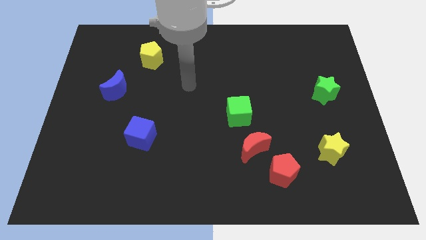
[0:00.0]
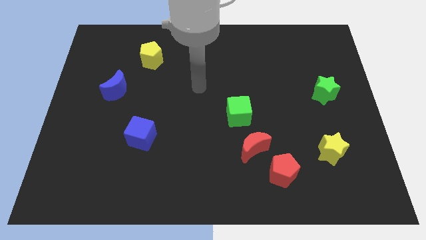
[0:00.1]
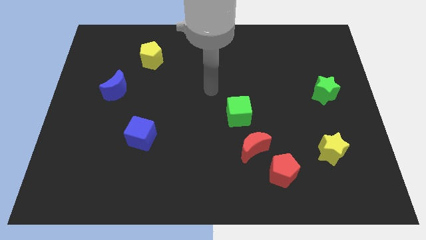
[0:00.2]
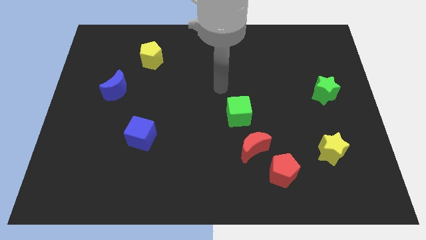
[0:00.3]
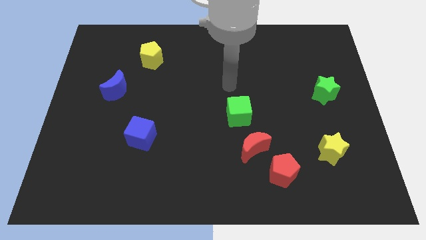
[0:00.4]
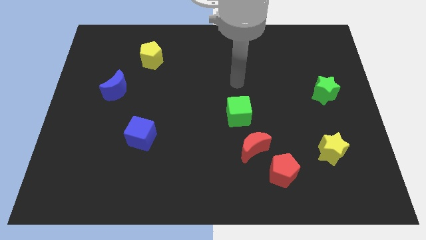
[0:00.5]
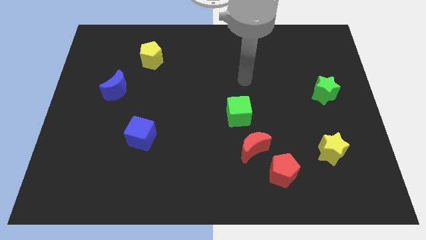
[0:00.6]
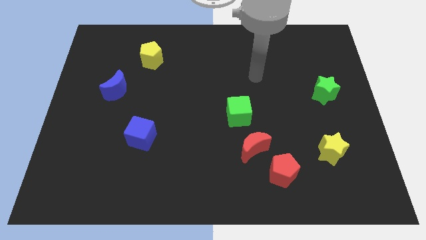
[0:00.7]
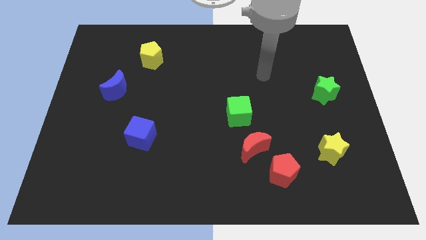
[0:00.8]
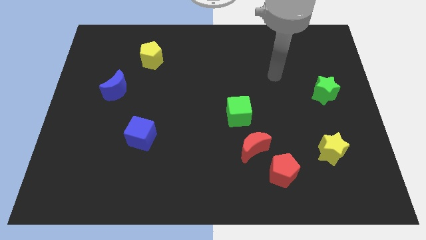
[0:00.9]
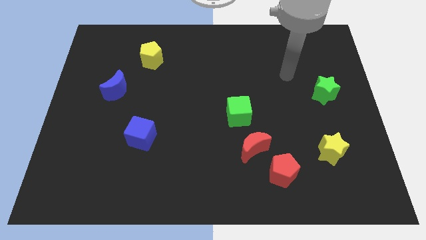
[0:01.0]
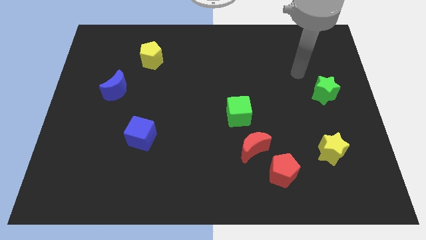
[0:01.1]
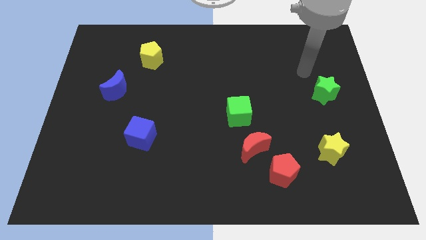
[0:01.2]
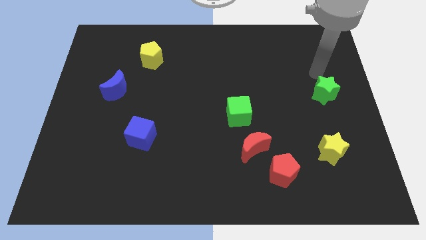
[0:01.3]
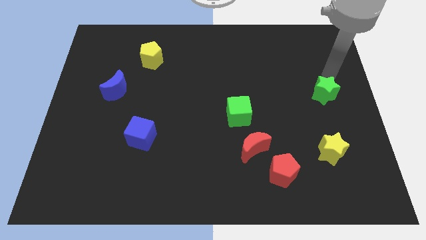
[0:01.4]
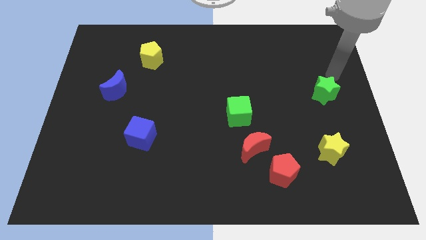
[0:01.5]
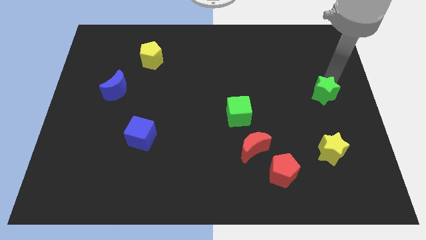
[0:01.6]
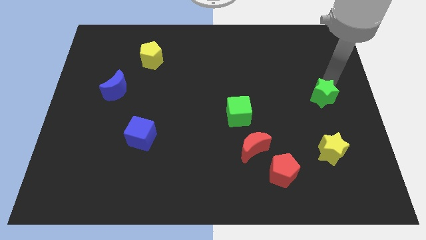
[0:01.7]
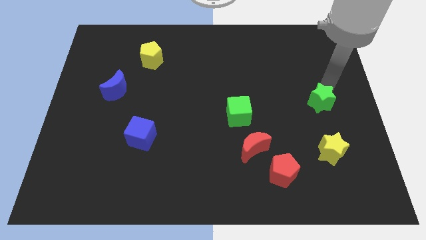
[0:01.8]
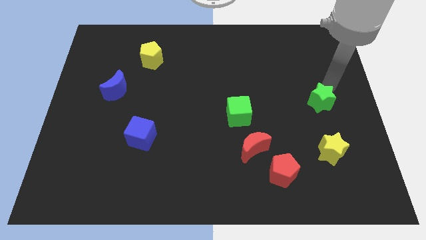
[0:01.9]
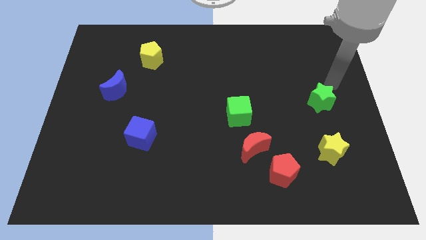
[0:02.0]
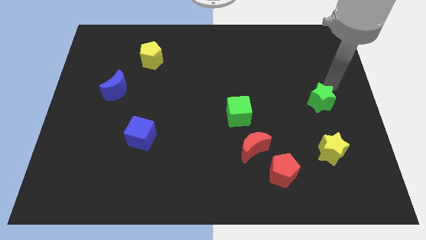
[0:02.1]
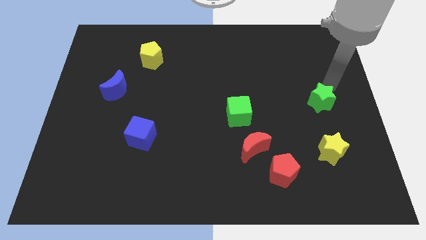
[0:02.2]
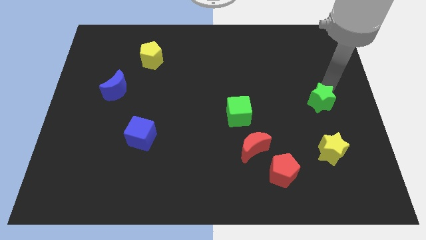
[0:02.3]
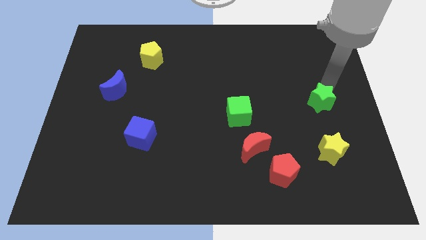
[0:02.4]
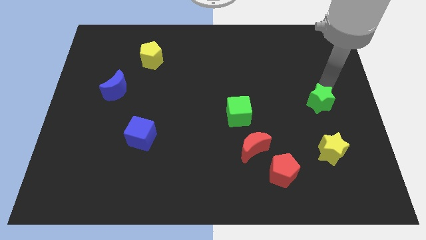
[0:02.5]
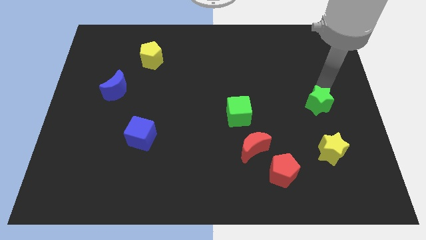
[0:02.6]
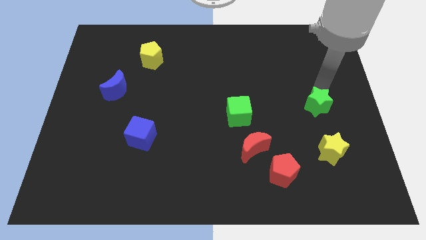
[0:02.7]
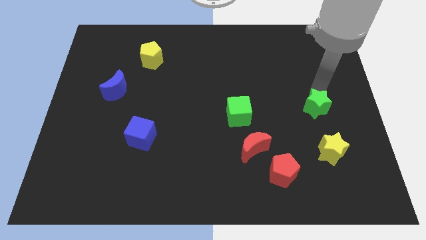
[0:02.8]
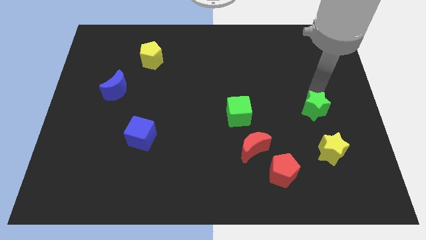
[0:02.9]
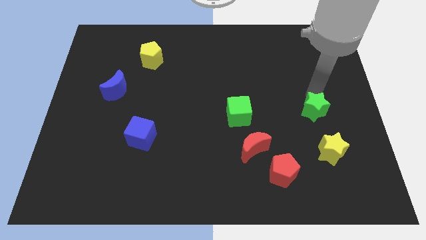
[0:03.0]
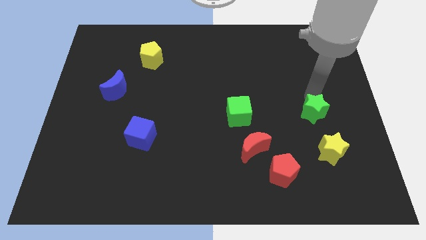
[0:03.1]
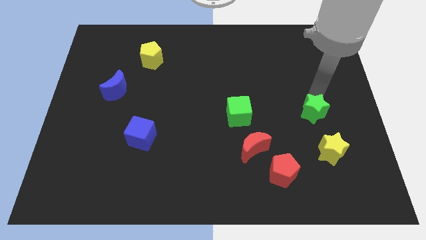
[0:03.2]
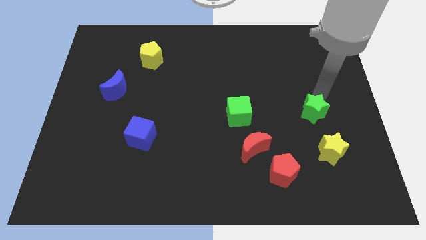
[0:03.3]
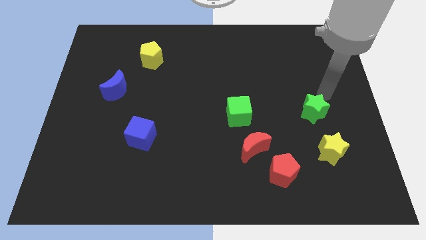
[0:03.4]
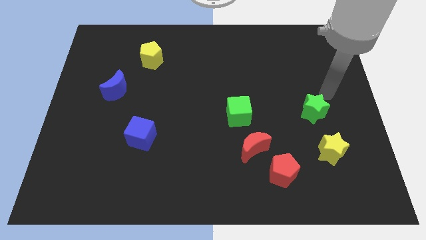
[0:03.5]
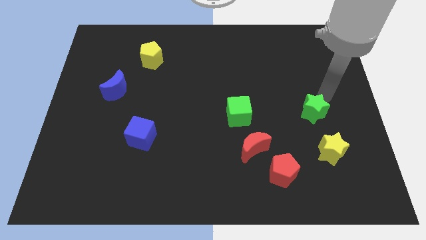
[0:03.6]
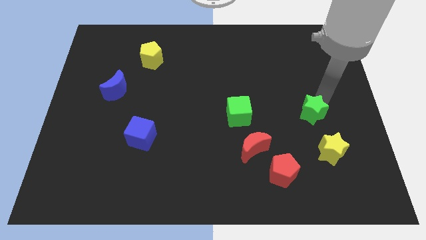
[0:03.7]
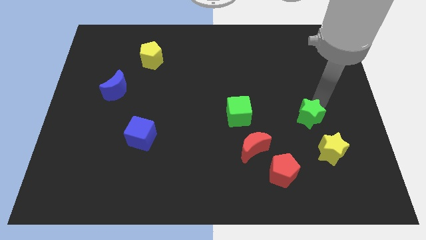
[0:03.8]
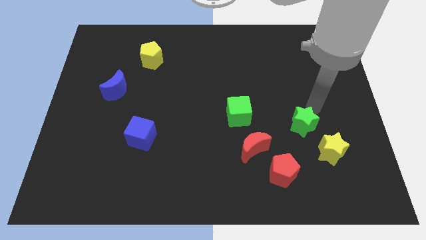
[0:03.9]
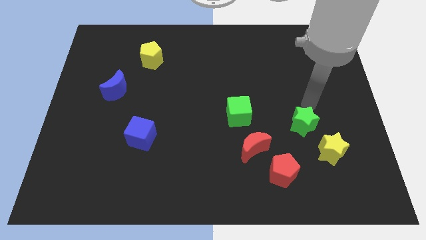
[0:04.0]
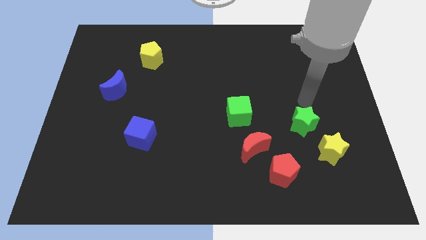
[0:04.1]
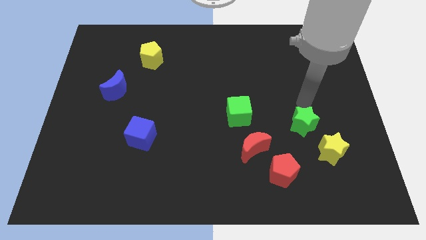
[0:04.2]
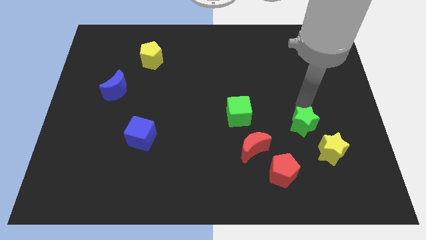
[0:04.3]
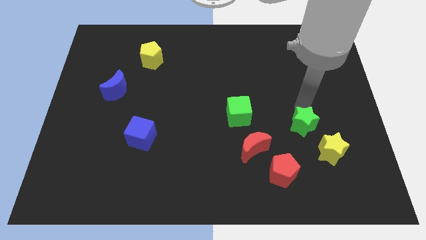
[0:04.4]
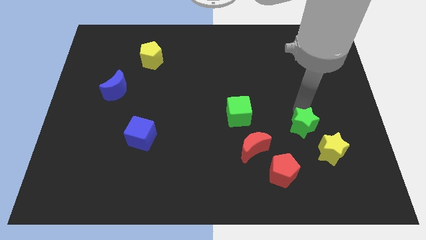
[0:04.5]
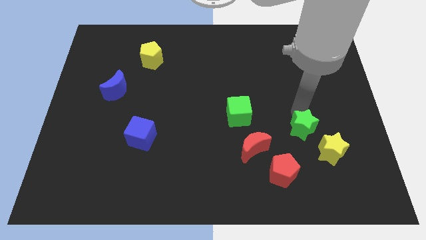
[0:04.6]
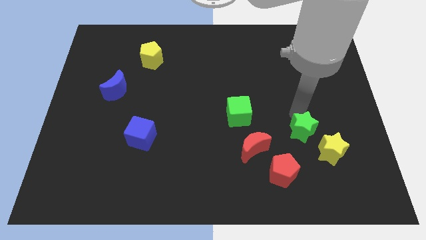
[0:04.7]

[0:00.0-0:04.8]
push the green star to the right side of the red moon

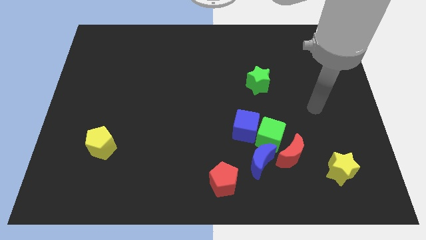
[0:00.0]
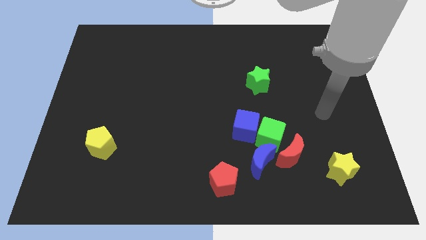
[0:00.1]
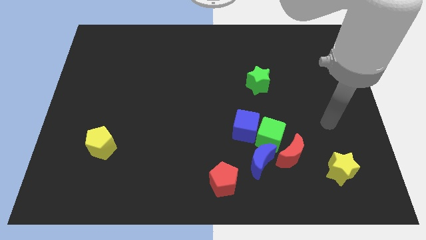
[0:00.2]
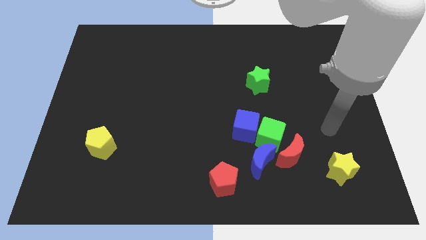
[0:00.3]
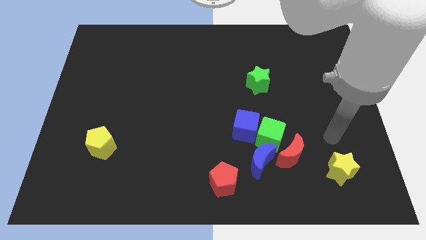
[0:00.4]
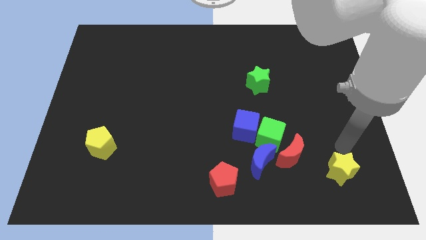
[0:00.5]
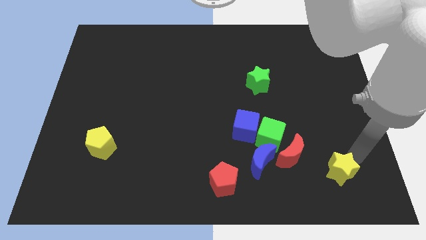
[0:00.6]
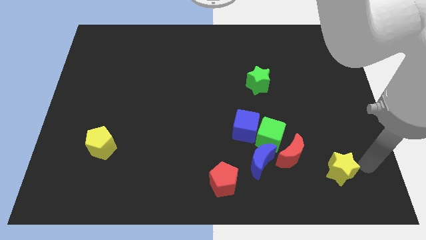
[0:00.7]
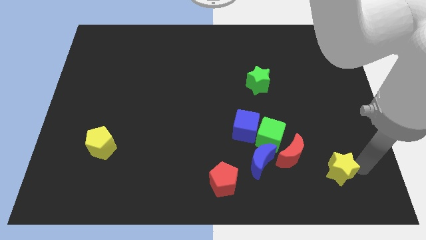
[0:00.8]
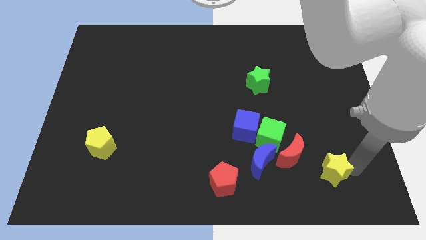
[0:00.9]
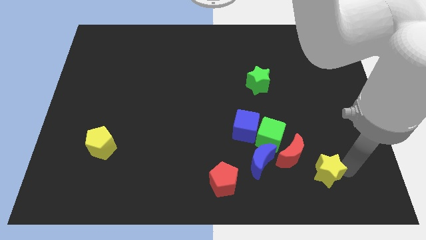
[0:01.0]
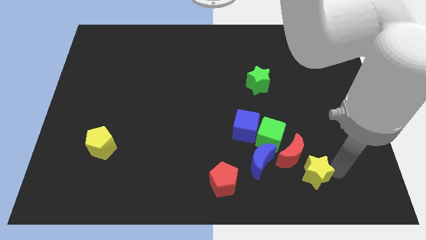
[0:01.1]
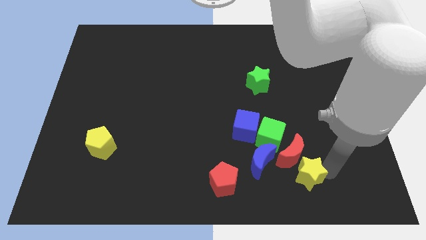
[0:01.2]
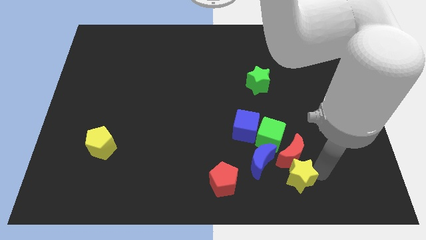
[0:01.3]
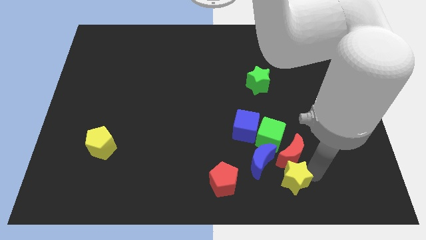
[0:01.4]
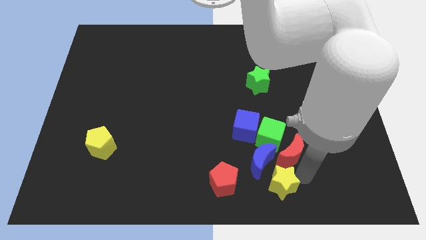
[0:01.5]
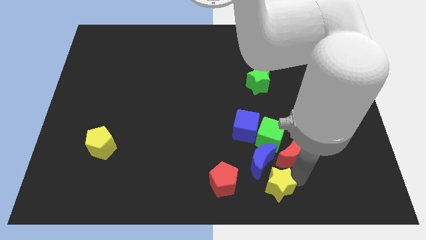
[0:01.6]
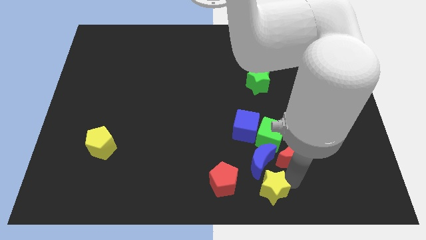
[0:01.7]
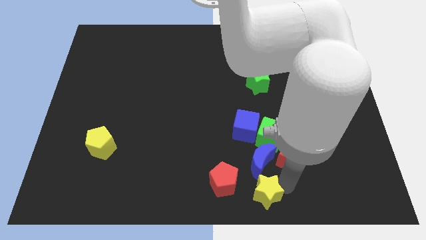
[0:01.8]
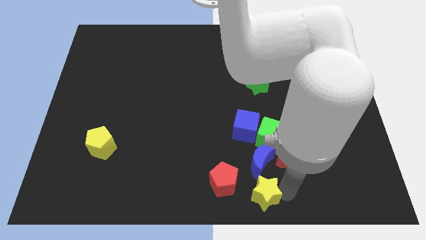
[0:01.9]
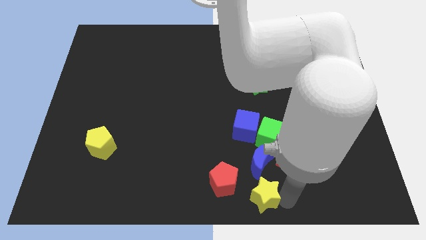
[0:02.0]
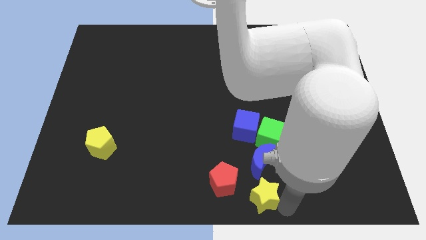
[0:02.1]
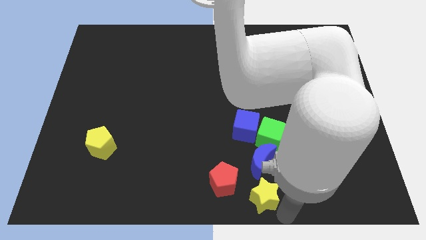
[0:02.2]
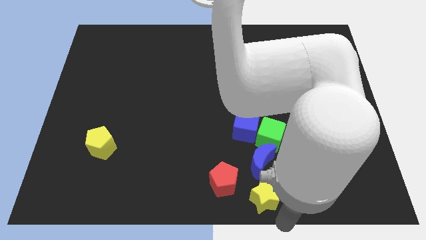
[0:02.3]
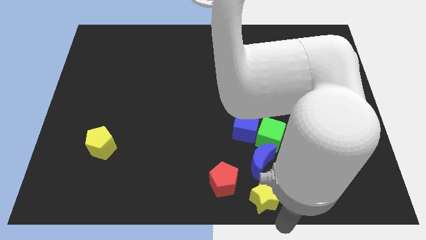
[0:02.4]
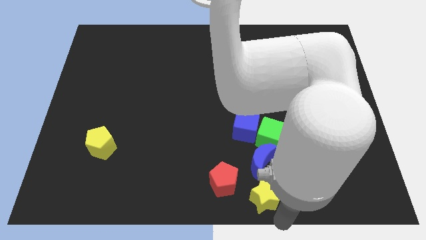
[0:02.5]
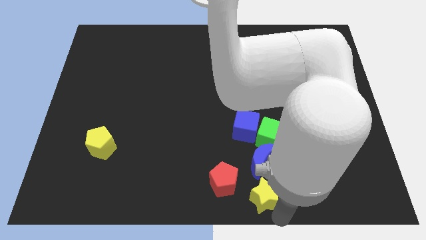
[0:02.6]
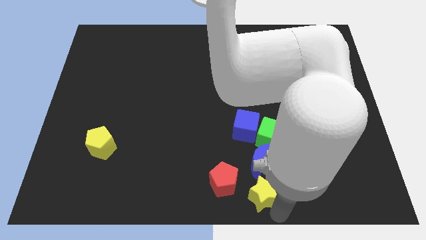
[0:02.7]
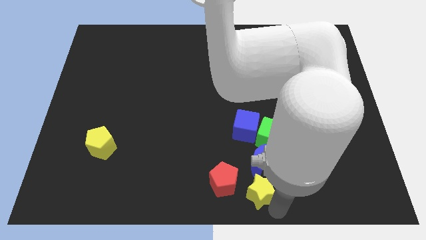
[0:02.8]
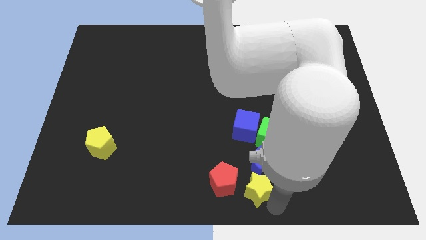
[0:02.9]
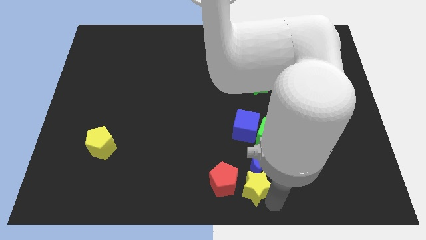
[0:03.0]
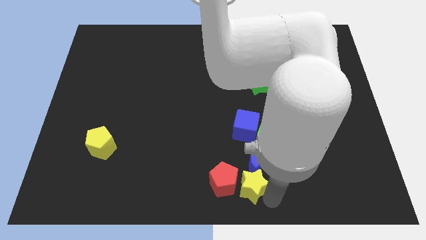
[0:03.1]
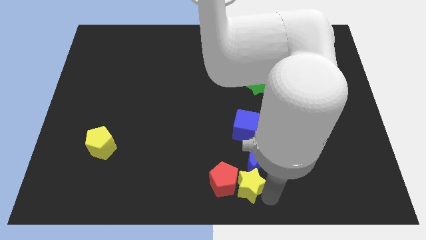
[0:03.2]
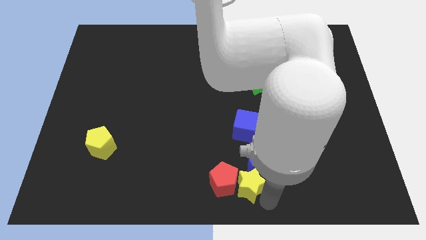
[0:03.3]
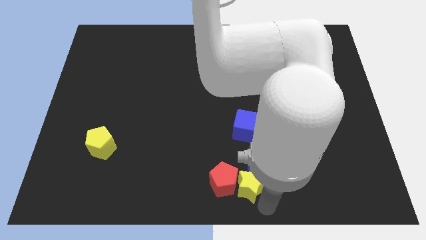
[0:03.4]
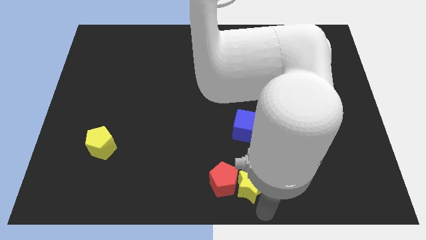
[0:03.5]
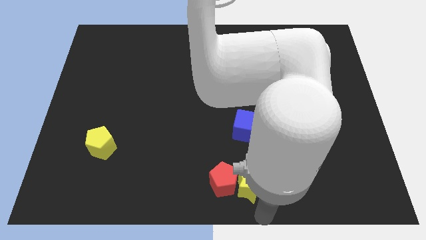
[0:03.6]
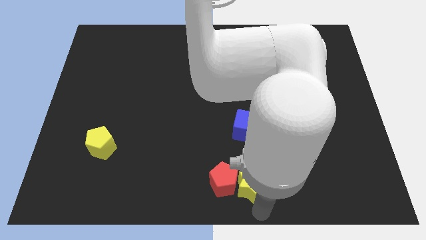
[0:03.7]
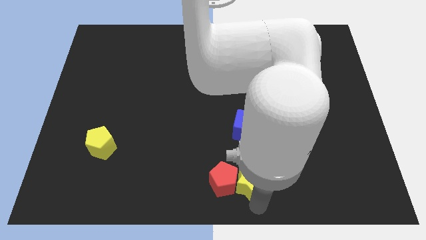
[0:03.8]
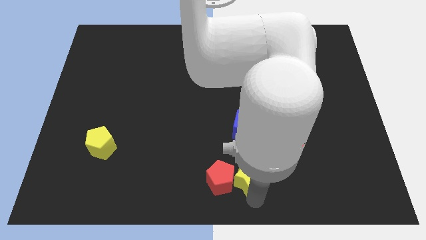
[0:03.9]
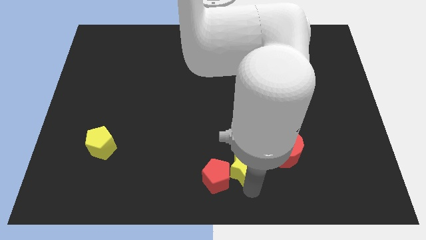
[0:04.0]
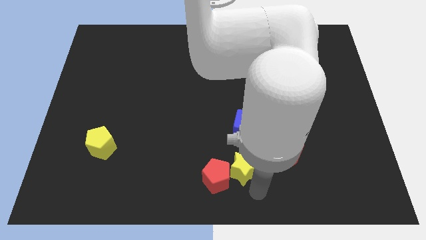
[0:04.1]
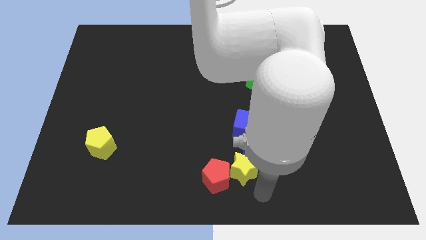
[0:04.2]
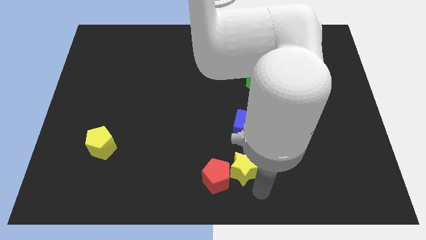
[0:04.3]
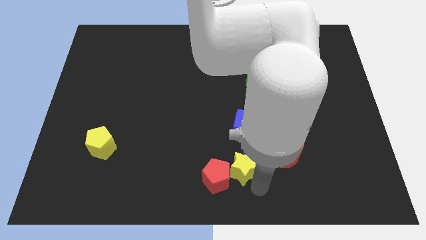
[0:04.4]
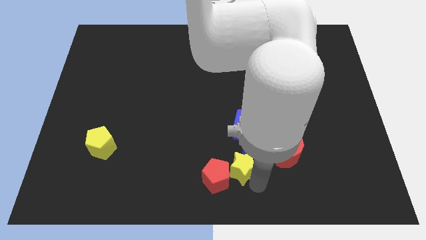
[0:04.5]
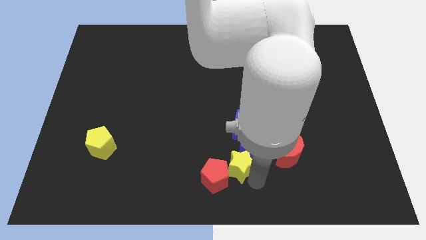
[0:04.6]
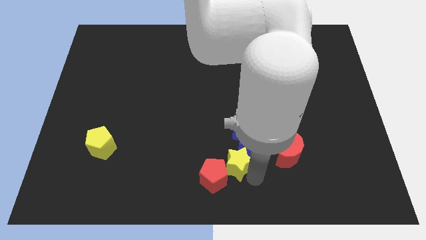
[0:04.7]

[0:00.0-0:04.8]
slide the yellow star to the bottom left side of the blue cube
